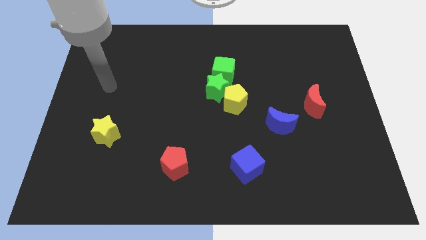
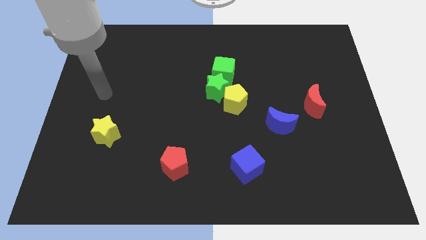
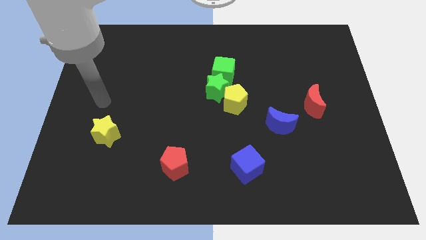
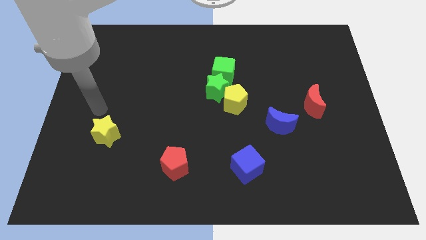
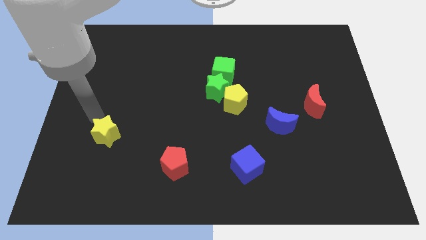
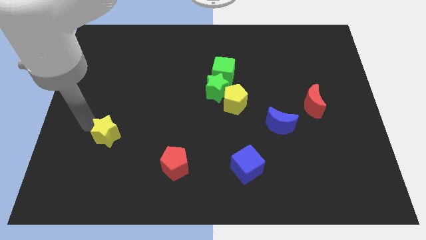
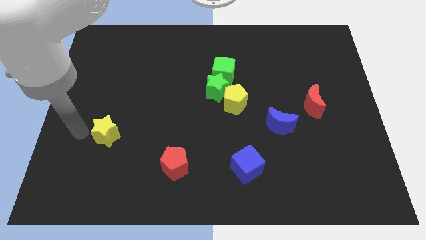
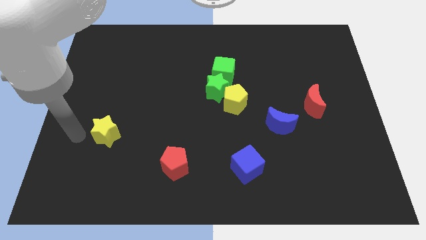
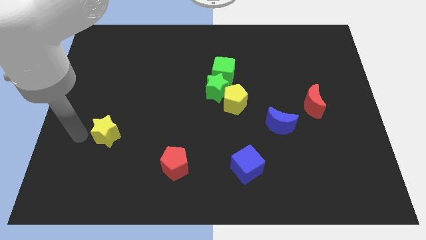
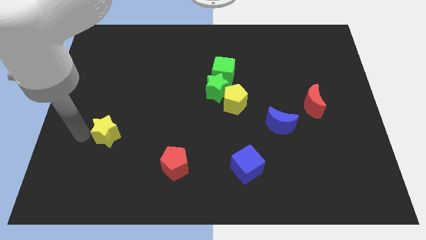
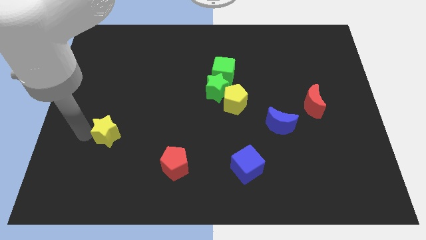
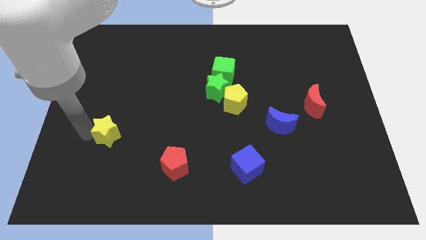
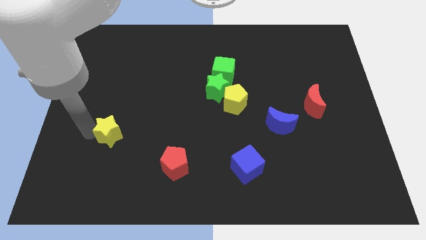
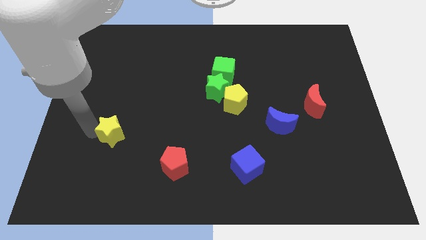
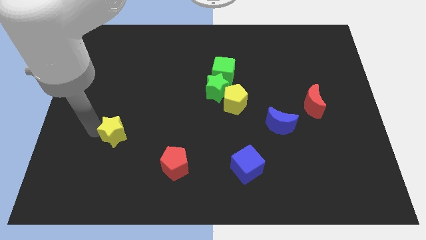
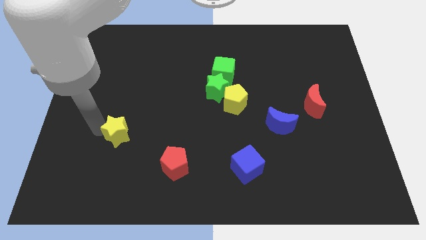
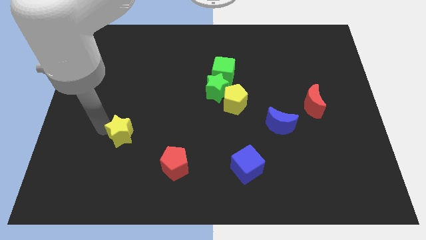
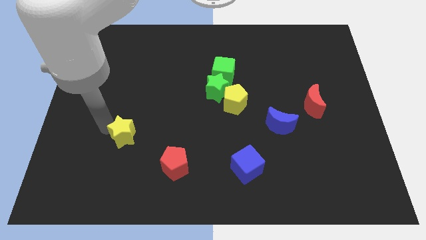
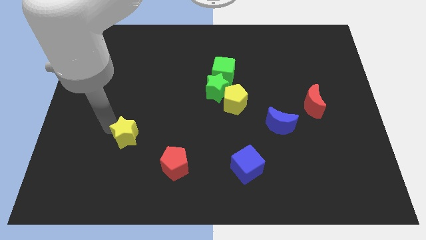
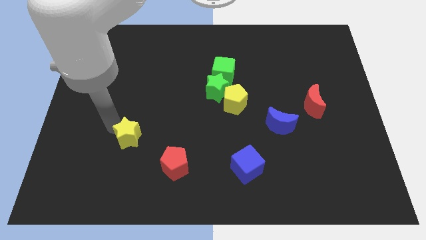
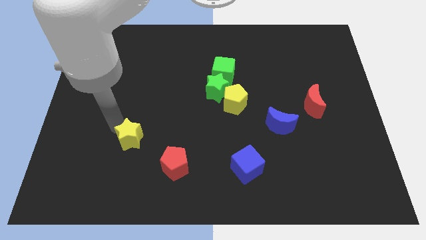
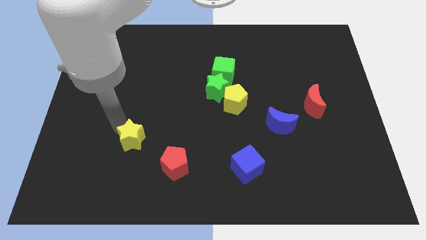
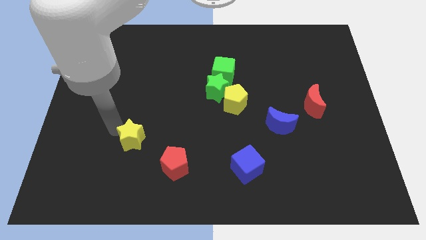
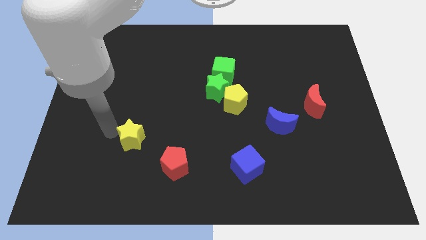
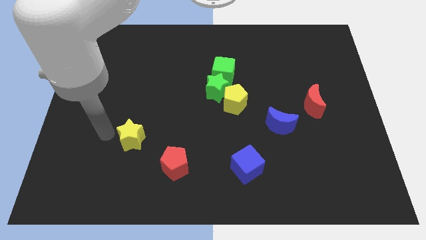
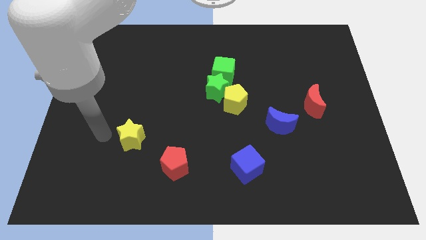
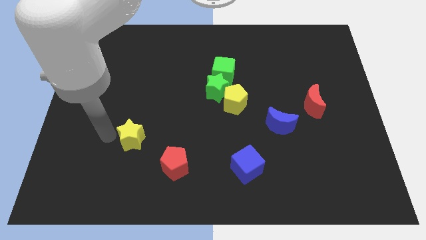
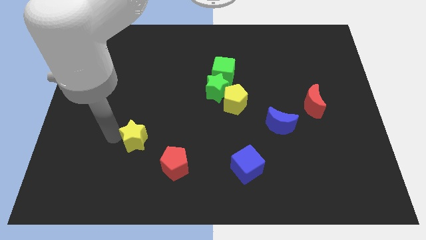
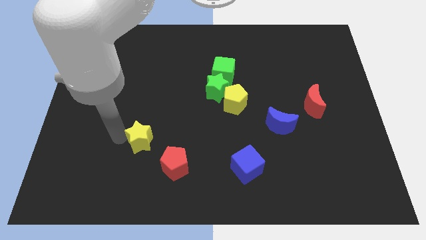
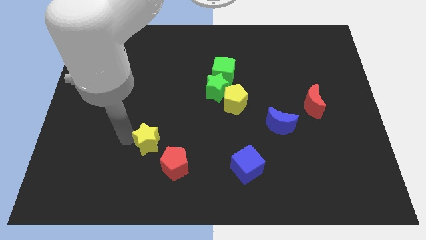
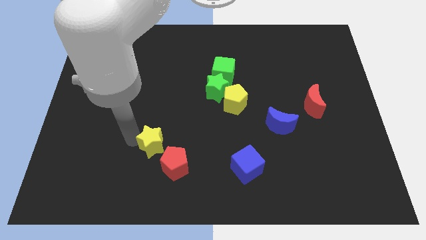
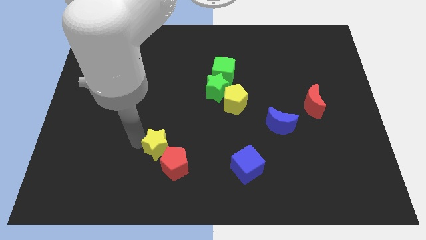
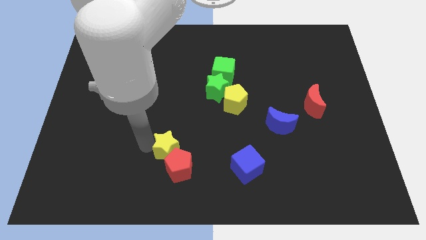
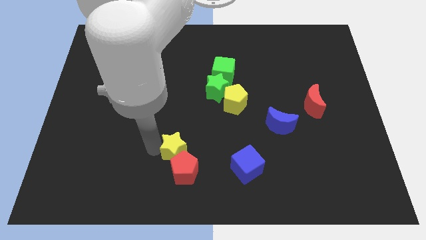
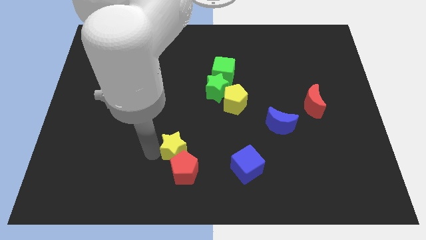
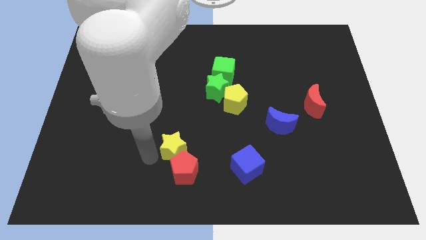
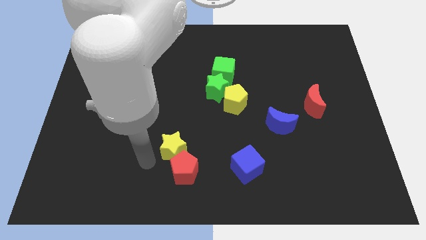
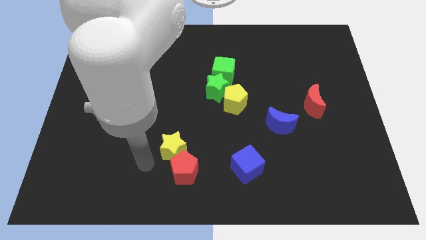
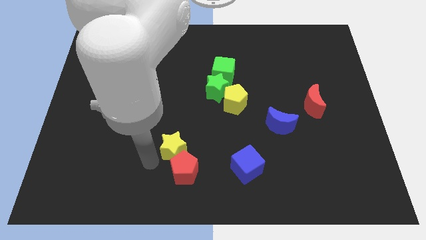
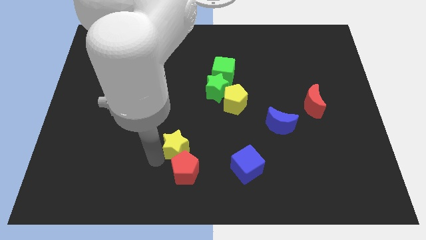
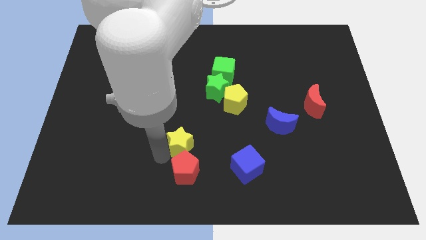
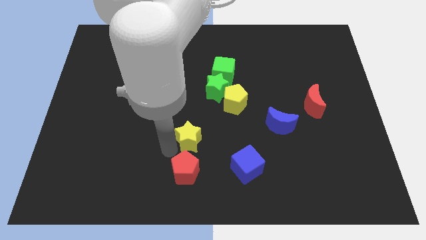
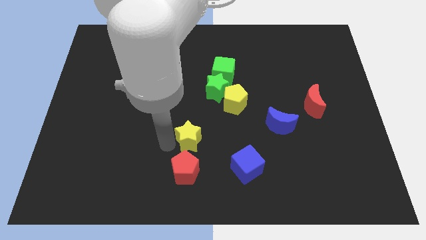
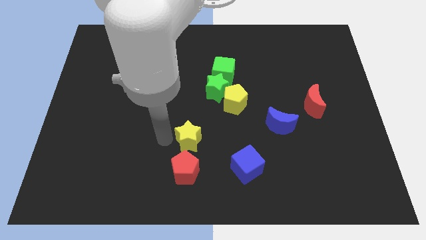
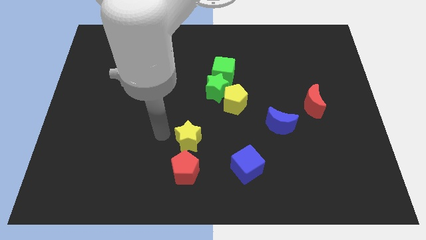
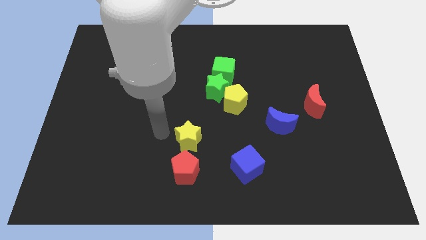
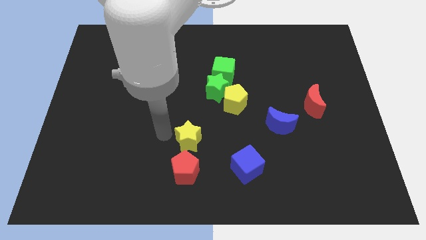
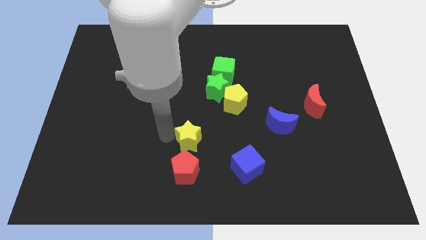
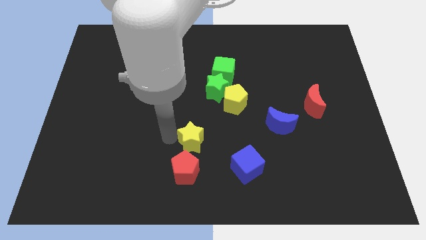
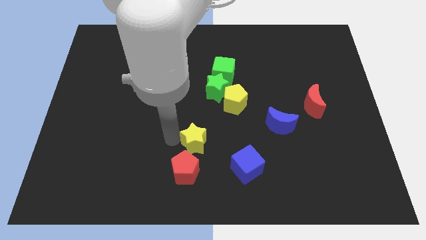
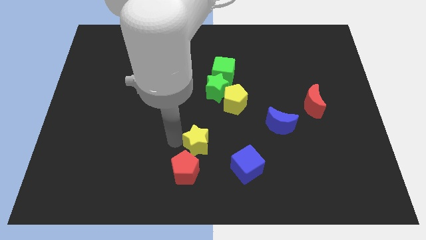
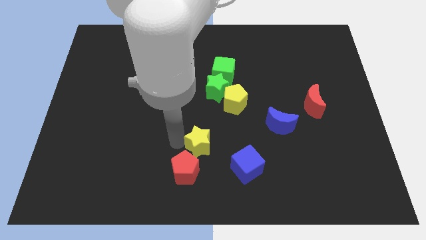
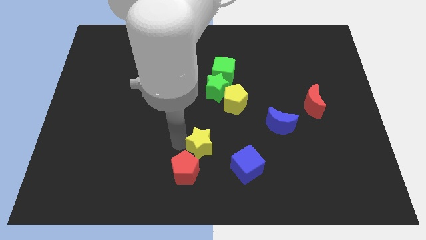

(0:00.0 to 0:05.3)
slide the yellow star left of the blue cube

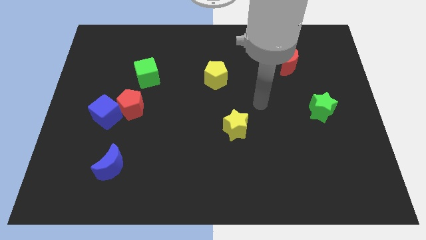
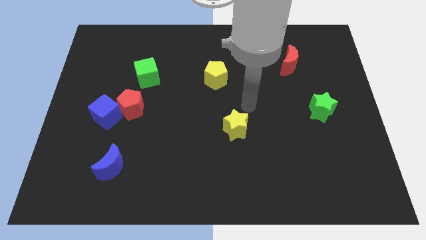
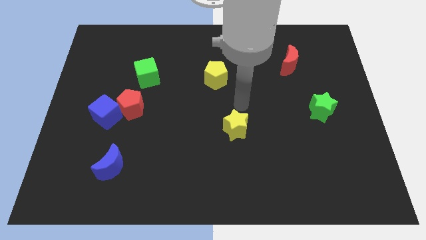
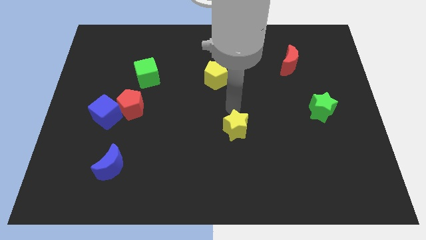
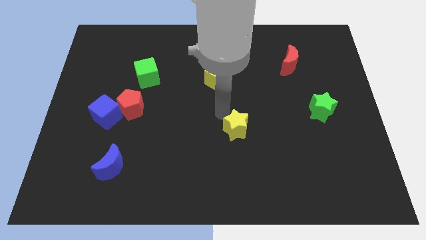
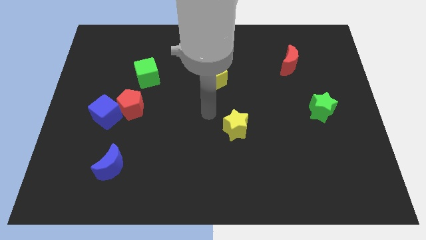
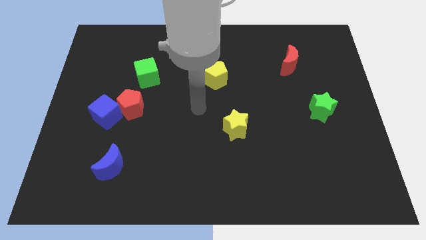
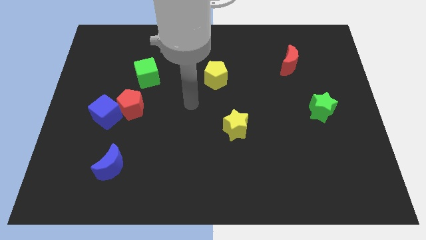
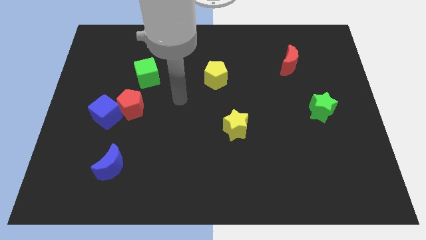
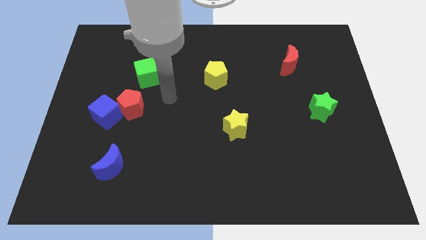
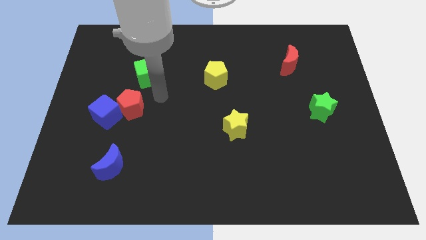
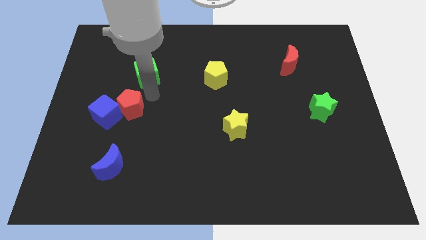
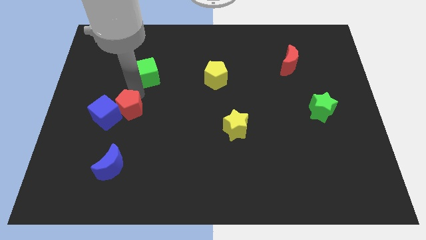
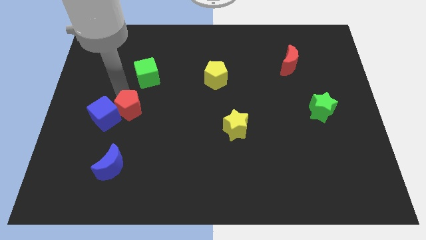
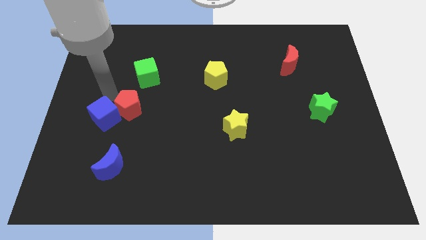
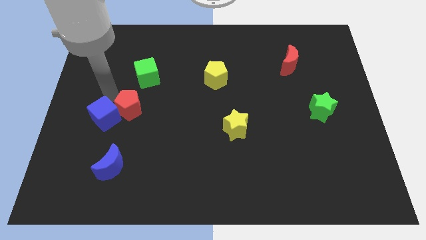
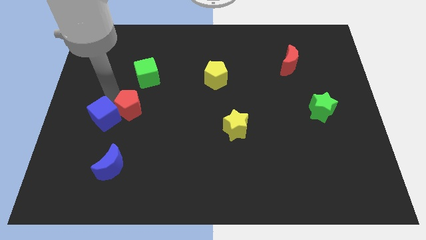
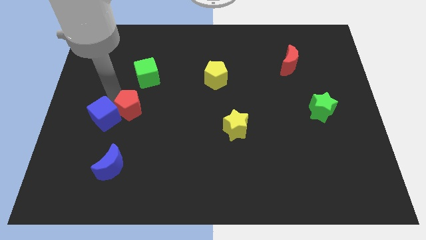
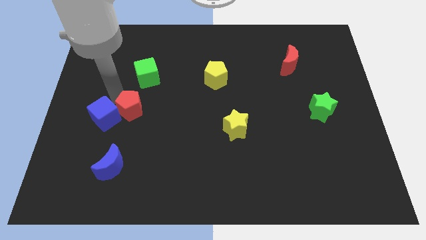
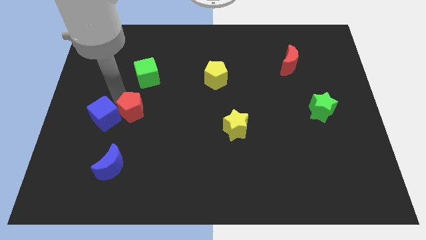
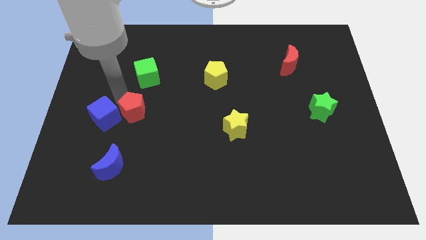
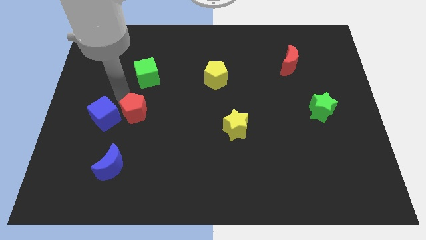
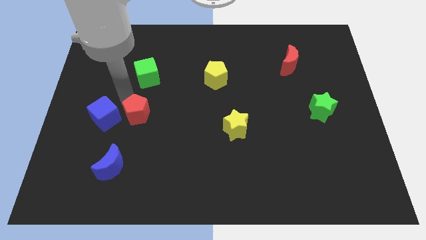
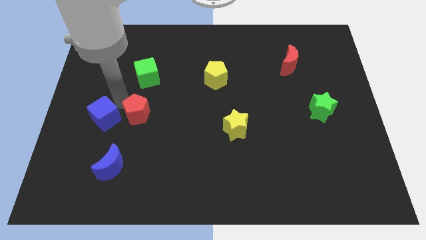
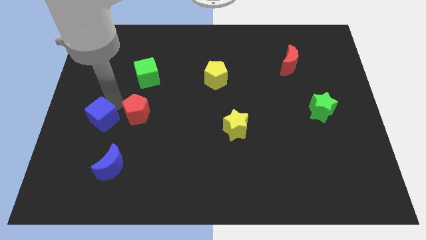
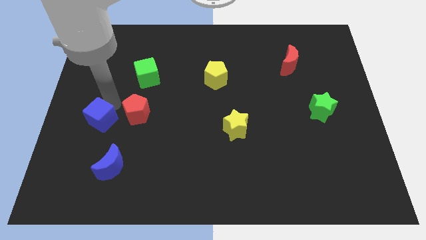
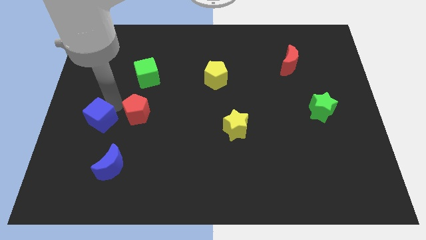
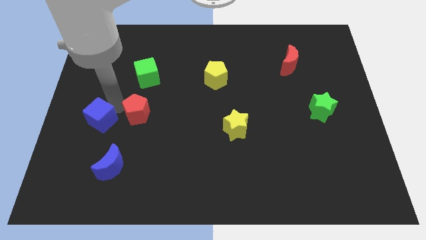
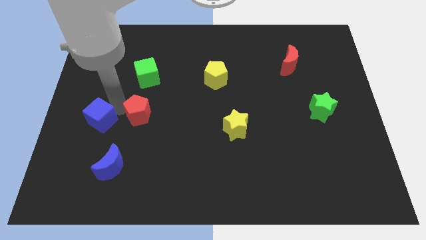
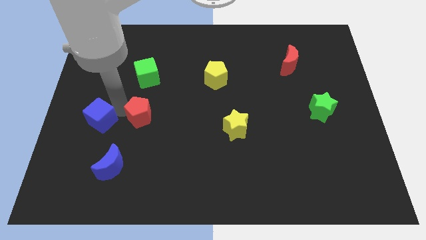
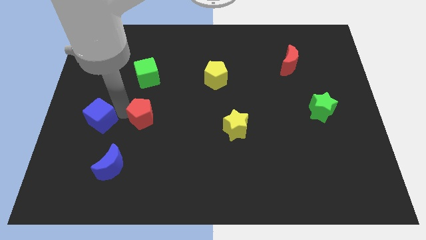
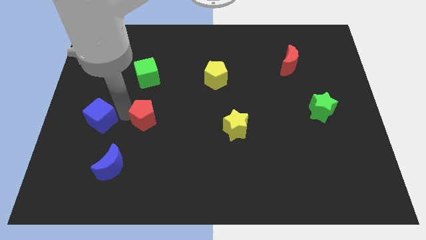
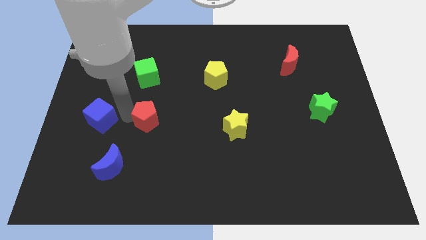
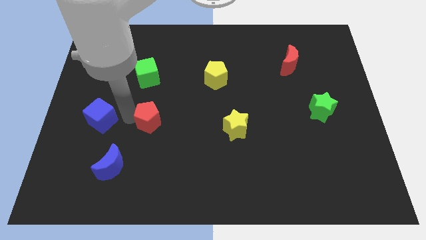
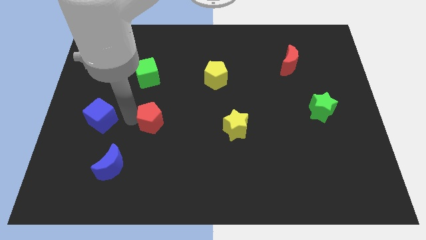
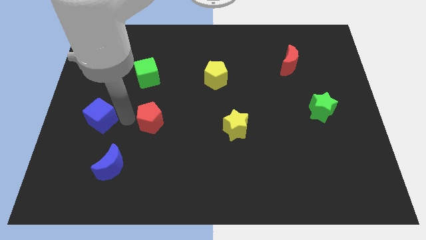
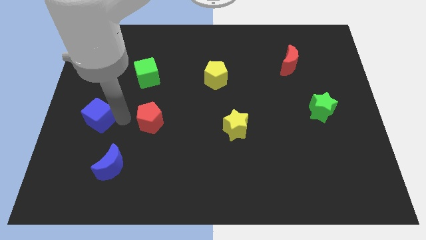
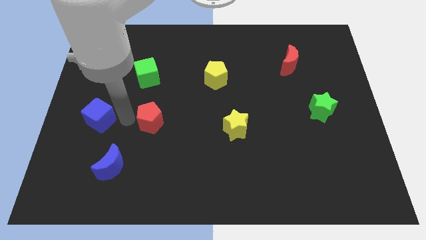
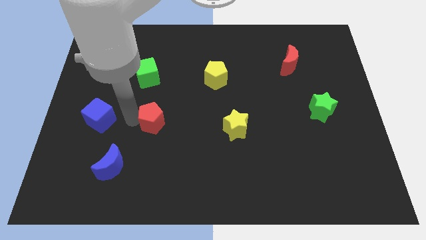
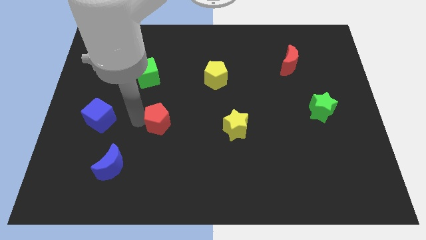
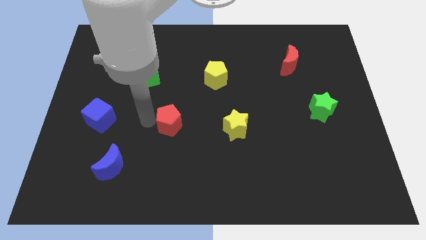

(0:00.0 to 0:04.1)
slide the red pentagon left of the yellow star
